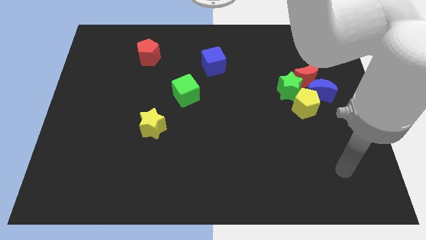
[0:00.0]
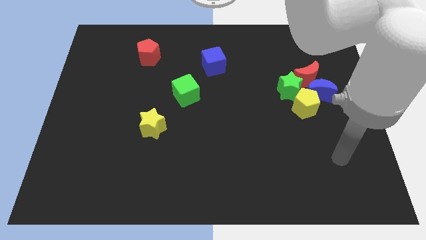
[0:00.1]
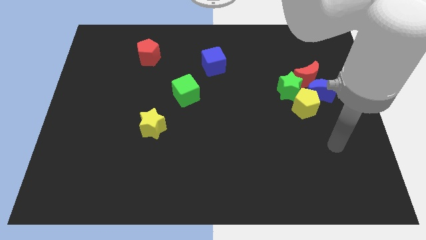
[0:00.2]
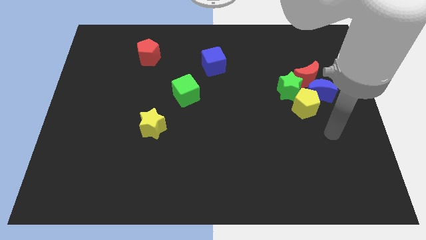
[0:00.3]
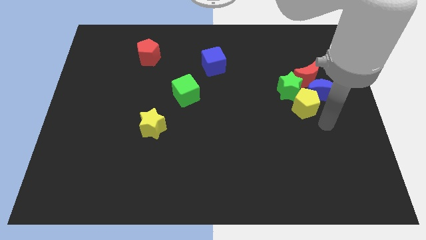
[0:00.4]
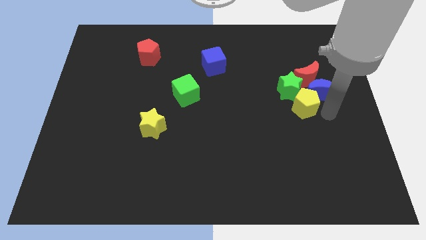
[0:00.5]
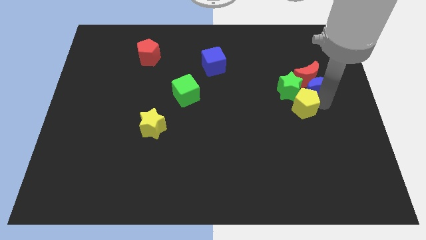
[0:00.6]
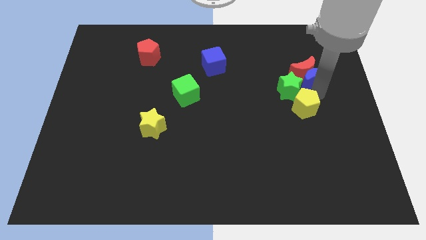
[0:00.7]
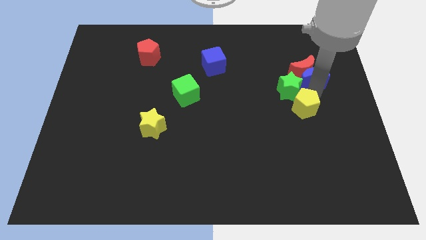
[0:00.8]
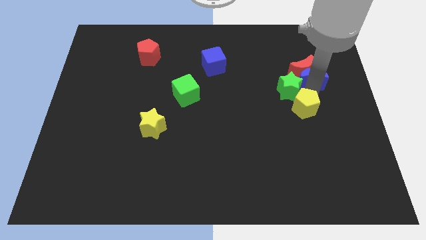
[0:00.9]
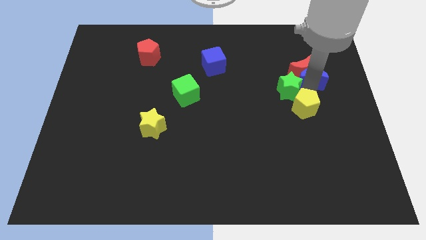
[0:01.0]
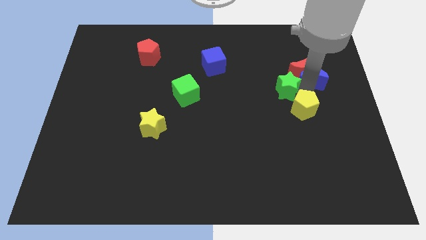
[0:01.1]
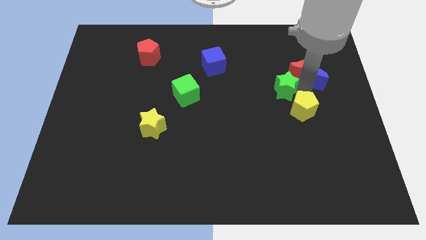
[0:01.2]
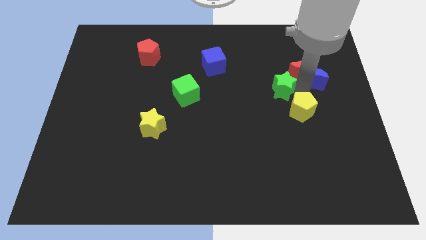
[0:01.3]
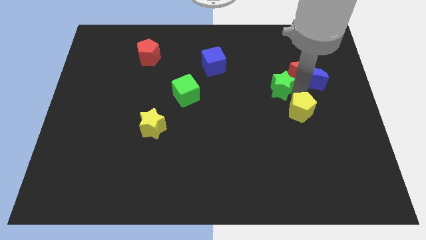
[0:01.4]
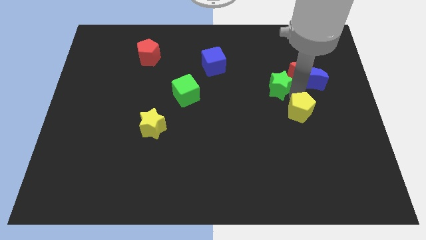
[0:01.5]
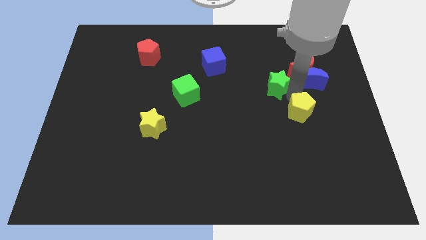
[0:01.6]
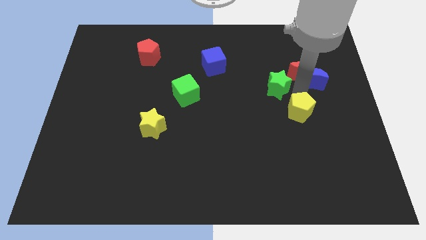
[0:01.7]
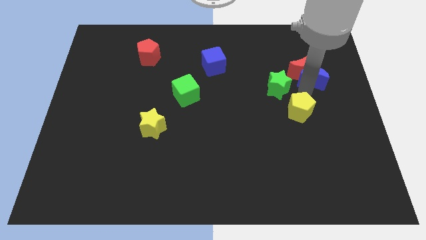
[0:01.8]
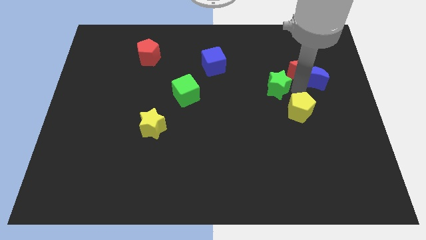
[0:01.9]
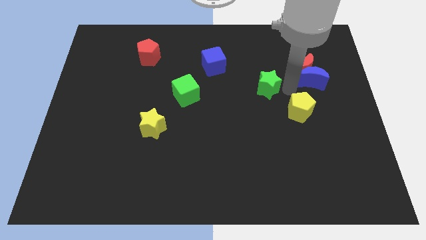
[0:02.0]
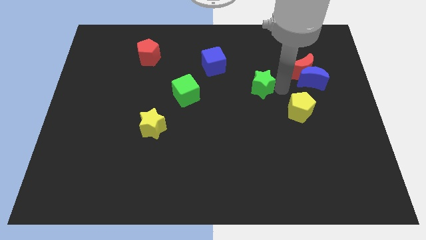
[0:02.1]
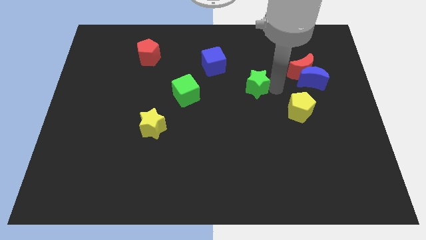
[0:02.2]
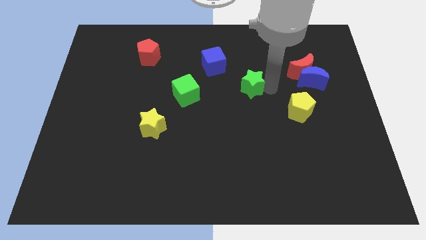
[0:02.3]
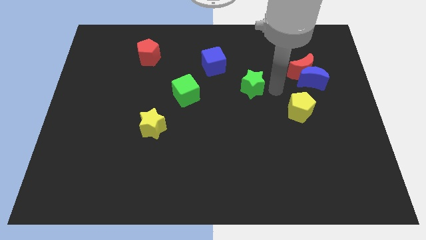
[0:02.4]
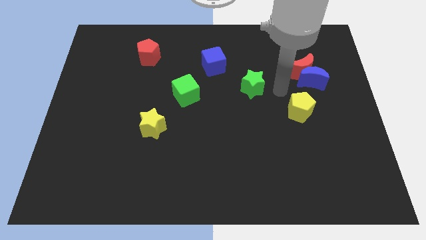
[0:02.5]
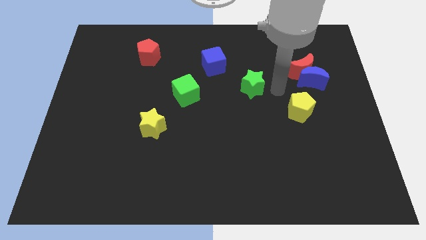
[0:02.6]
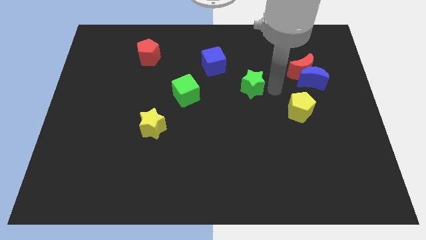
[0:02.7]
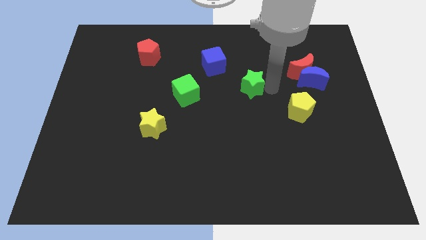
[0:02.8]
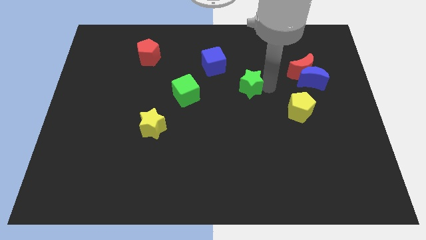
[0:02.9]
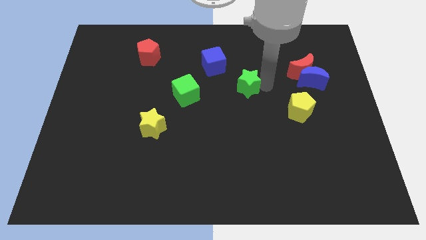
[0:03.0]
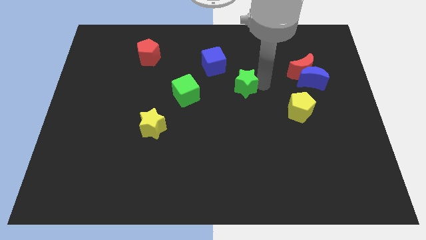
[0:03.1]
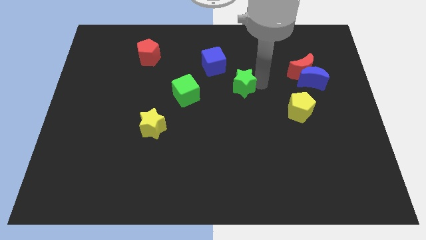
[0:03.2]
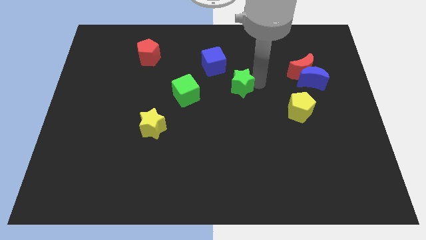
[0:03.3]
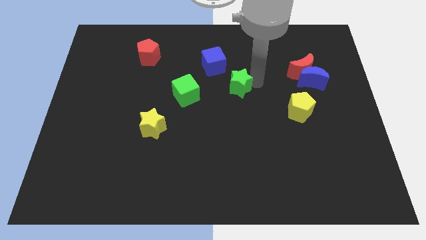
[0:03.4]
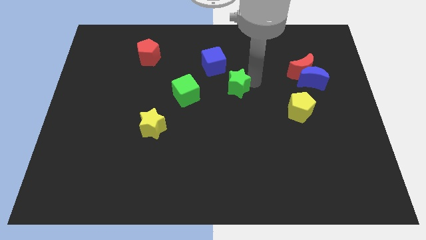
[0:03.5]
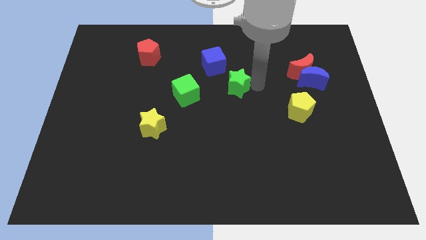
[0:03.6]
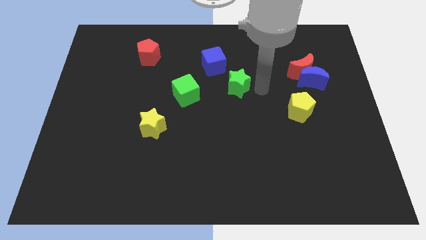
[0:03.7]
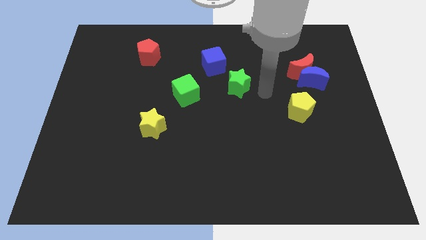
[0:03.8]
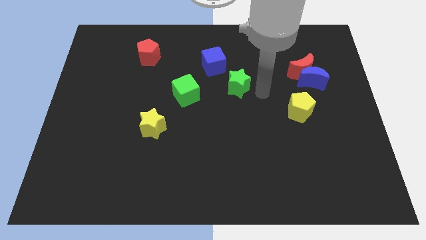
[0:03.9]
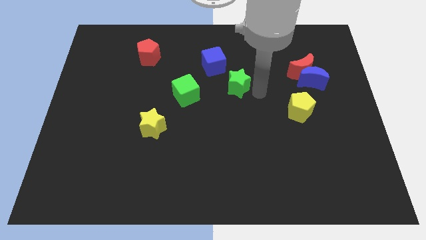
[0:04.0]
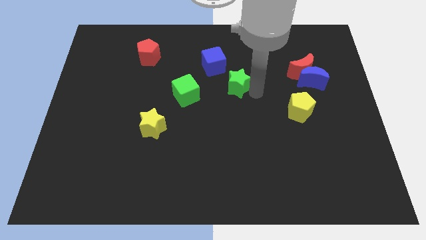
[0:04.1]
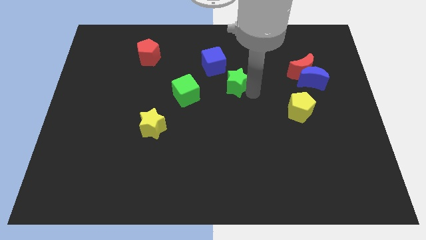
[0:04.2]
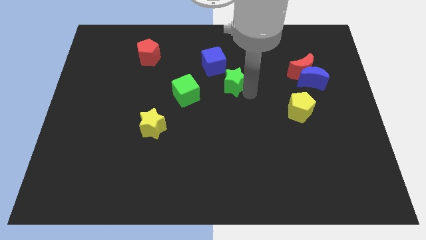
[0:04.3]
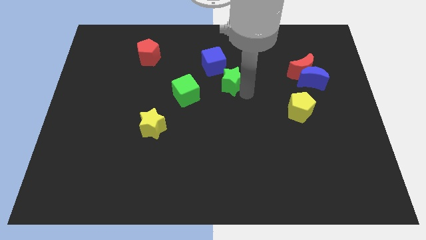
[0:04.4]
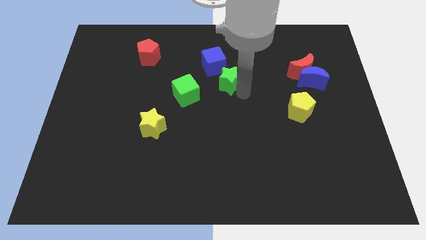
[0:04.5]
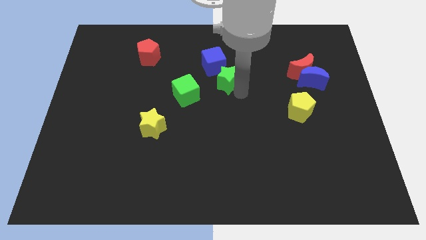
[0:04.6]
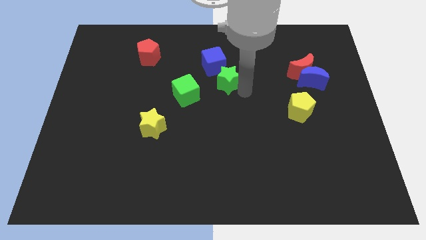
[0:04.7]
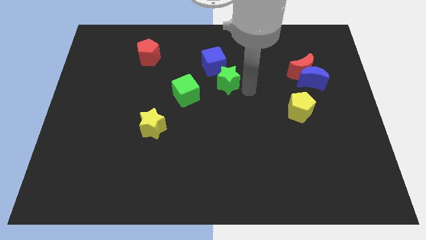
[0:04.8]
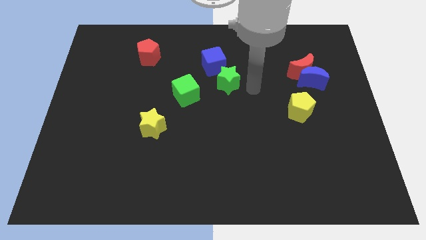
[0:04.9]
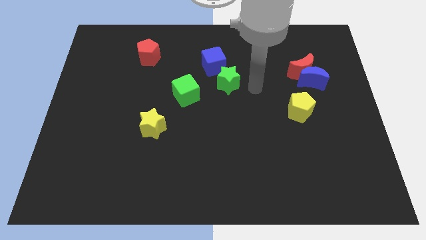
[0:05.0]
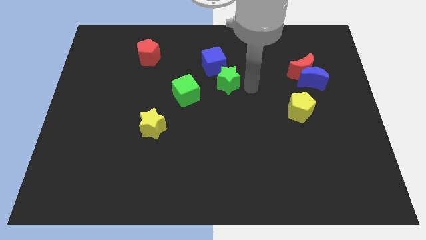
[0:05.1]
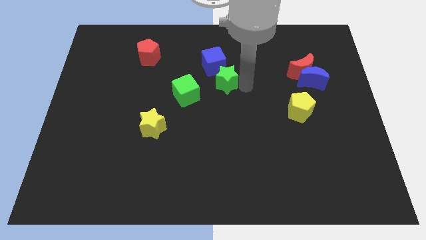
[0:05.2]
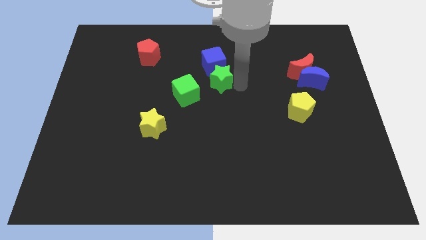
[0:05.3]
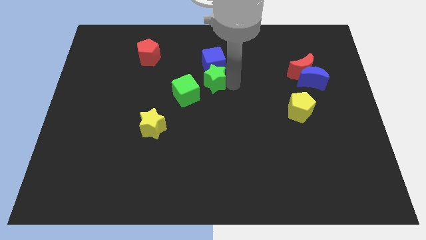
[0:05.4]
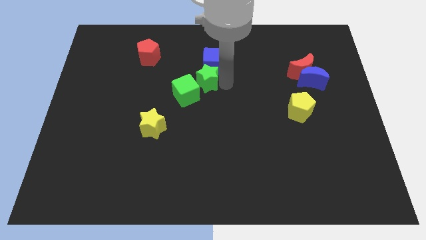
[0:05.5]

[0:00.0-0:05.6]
slide the green star left

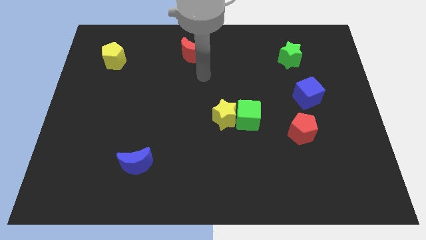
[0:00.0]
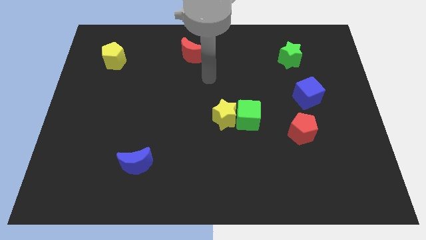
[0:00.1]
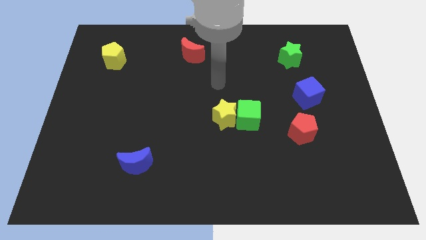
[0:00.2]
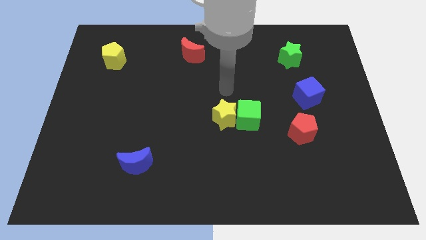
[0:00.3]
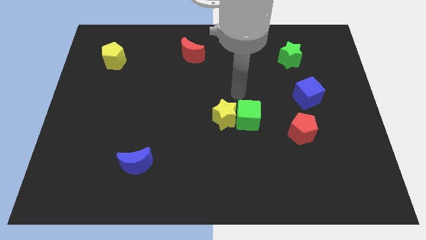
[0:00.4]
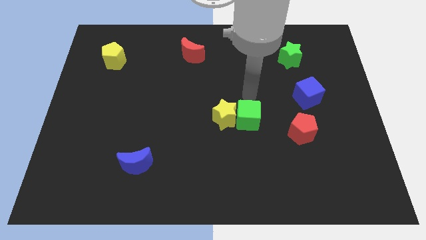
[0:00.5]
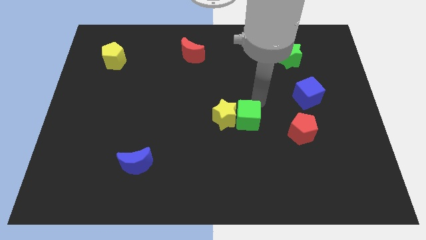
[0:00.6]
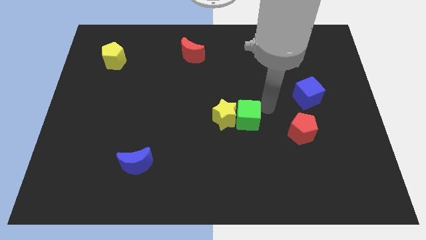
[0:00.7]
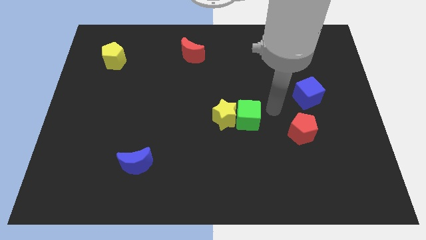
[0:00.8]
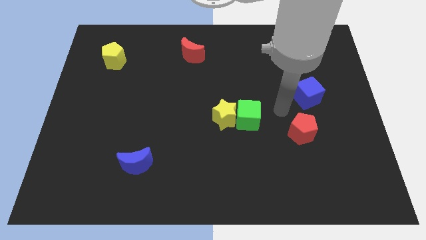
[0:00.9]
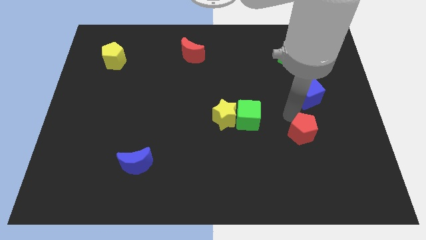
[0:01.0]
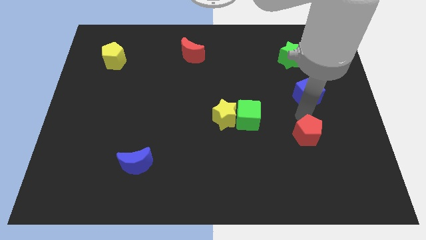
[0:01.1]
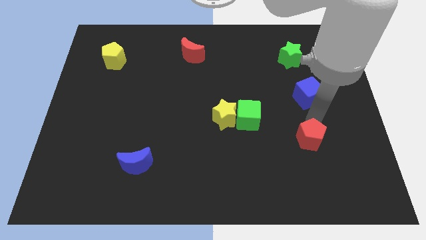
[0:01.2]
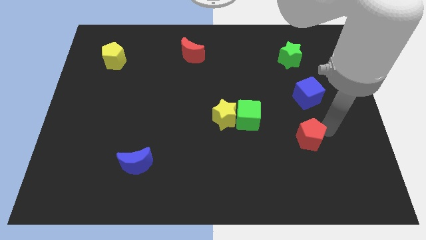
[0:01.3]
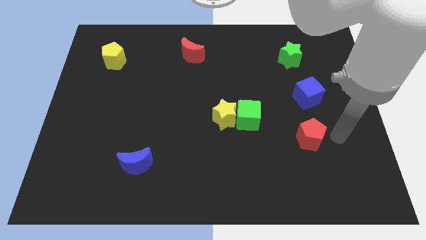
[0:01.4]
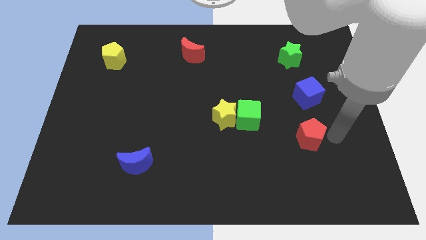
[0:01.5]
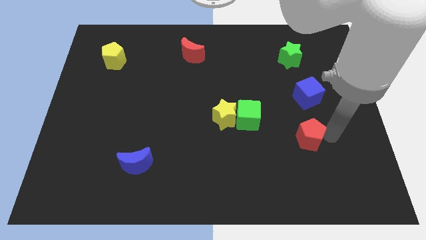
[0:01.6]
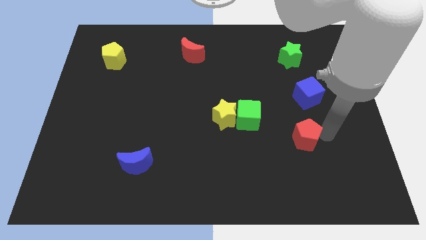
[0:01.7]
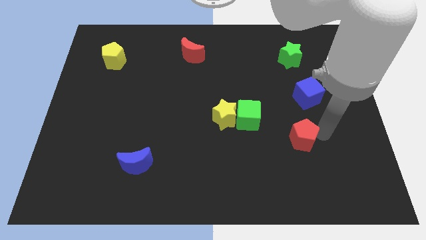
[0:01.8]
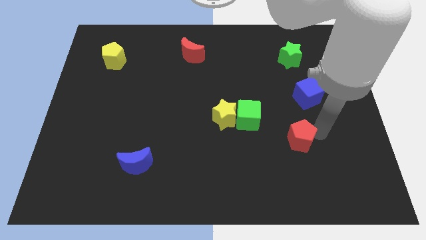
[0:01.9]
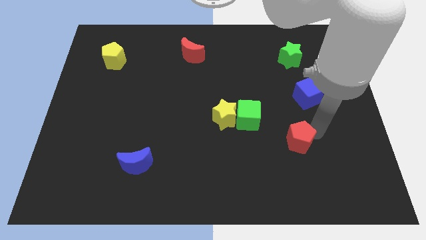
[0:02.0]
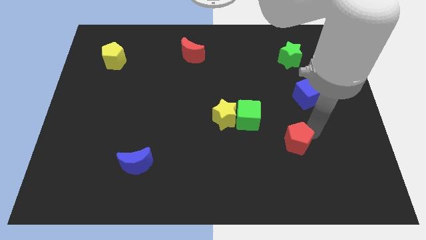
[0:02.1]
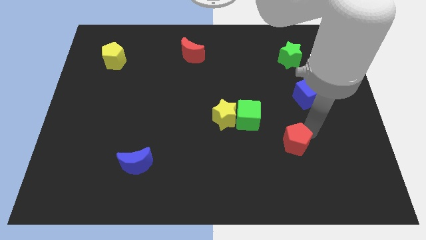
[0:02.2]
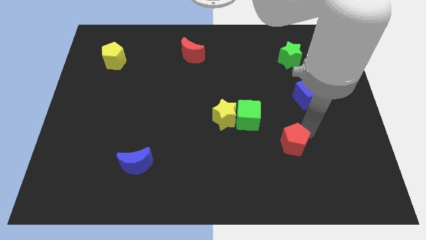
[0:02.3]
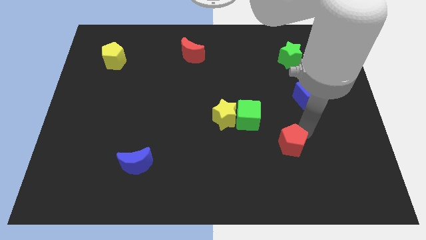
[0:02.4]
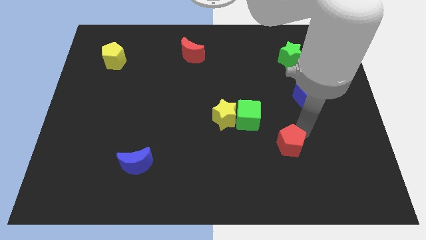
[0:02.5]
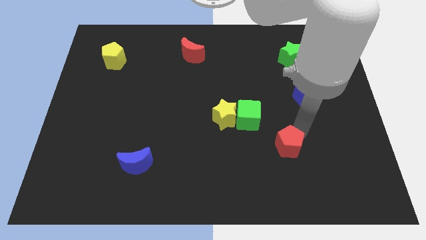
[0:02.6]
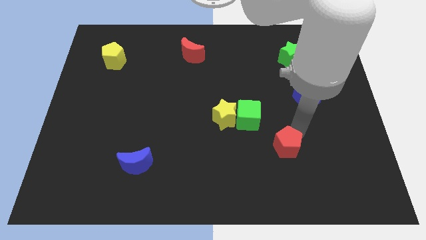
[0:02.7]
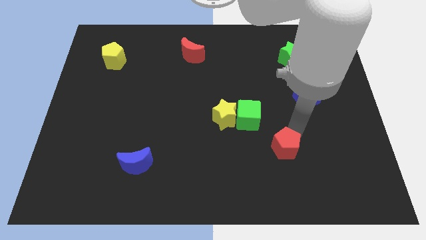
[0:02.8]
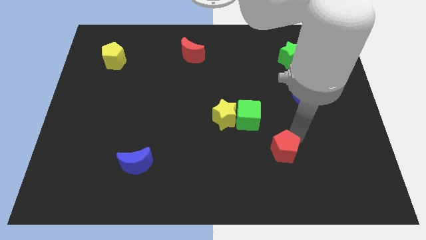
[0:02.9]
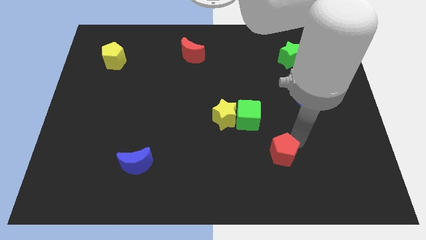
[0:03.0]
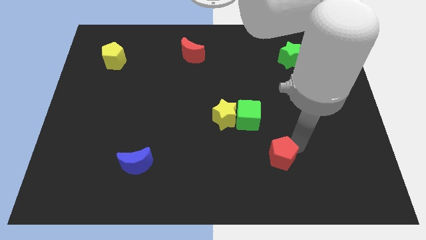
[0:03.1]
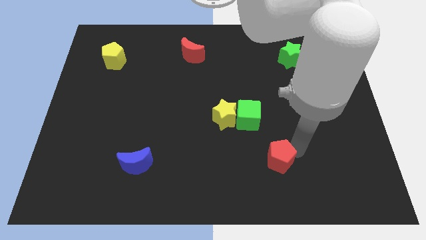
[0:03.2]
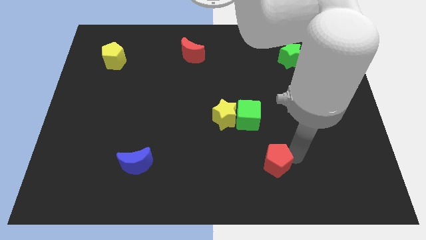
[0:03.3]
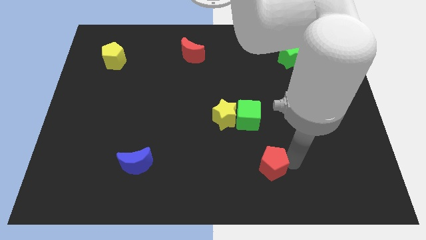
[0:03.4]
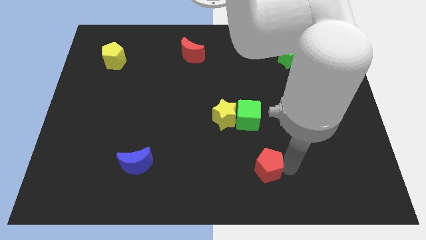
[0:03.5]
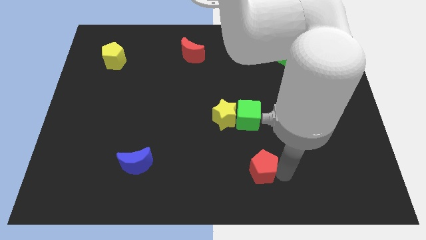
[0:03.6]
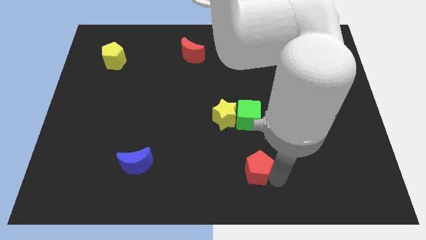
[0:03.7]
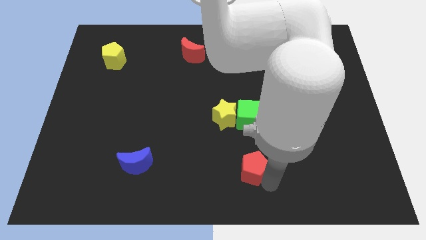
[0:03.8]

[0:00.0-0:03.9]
push the red pentagon somewhat to the left
